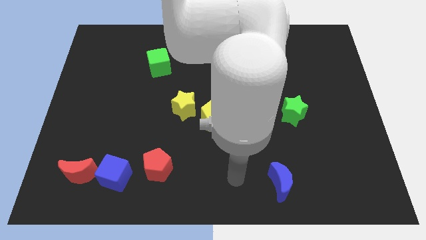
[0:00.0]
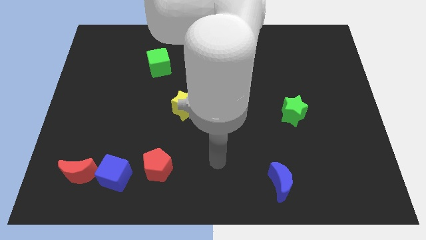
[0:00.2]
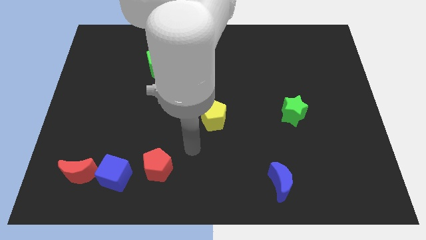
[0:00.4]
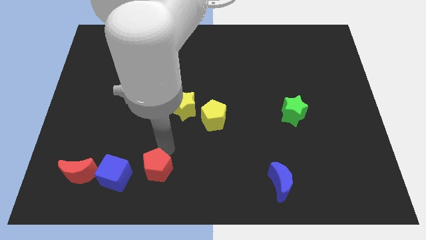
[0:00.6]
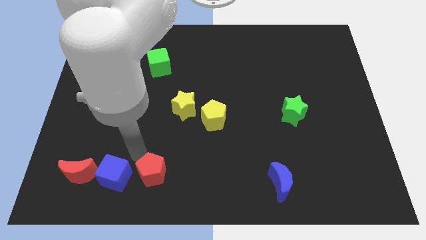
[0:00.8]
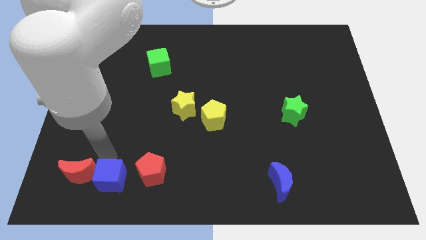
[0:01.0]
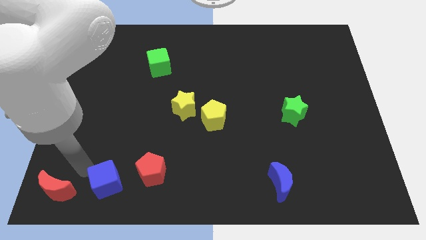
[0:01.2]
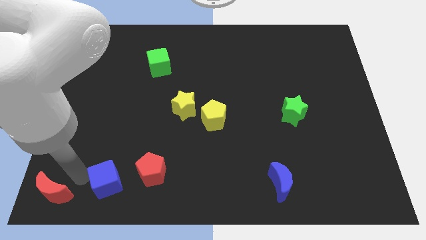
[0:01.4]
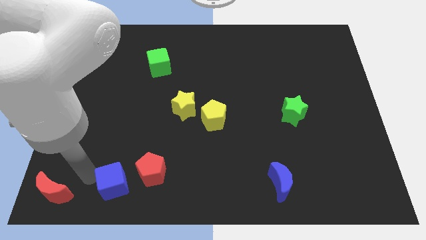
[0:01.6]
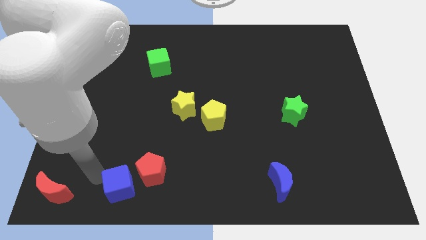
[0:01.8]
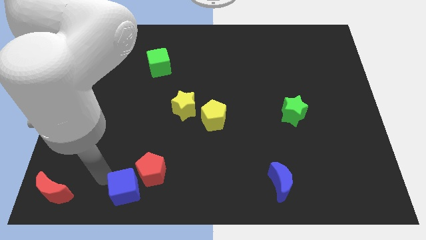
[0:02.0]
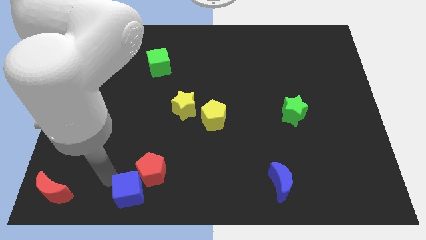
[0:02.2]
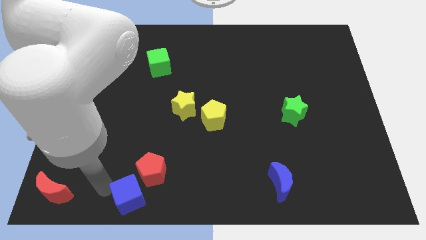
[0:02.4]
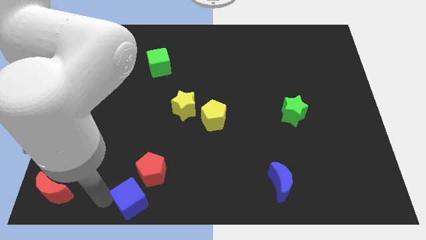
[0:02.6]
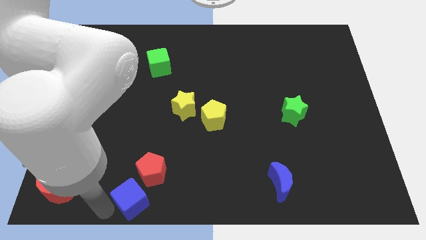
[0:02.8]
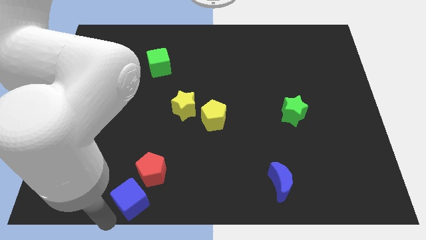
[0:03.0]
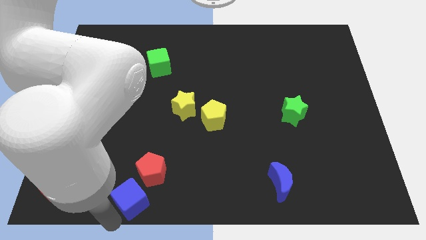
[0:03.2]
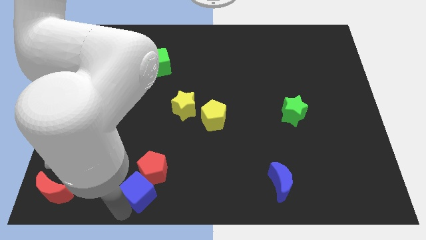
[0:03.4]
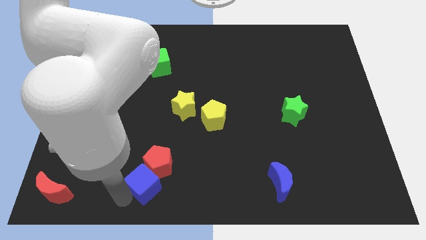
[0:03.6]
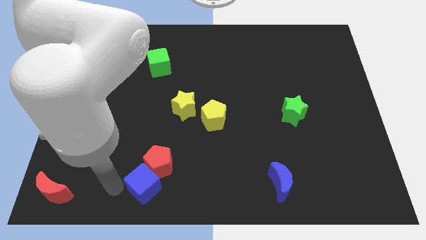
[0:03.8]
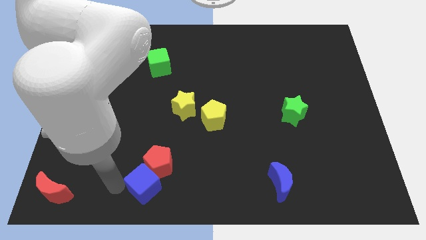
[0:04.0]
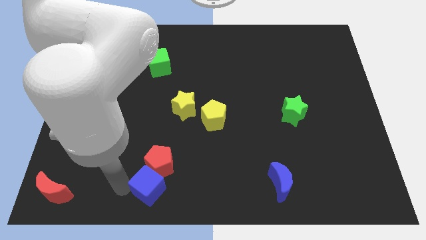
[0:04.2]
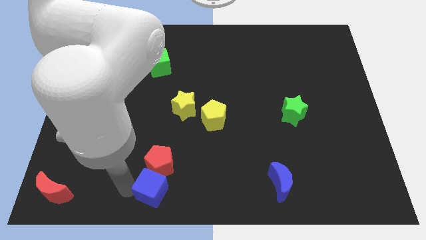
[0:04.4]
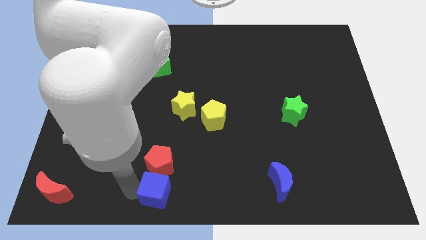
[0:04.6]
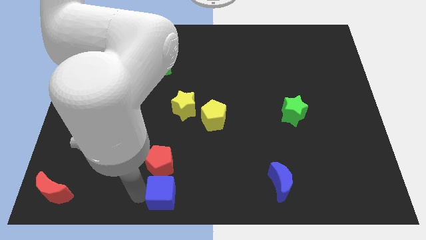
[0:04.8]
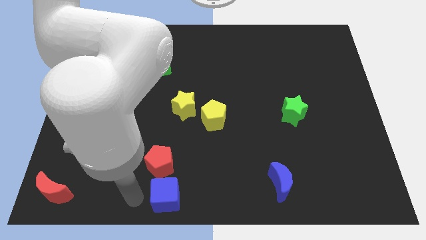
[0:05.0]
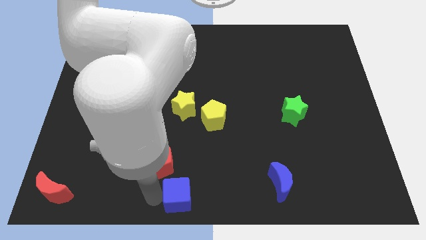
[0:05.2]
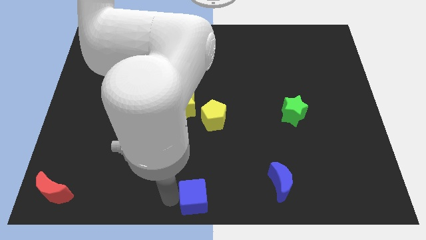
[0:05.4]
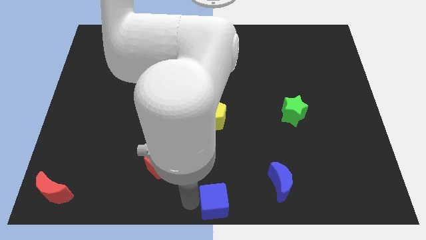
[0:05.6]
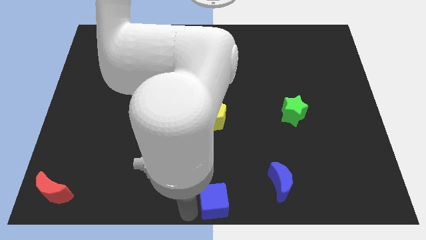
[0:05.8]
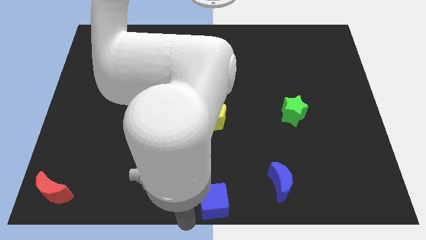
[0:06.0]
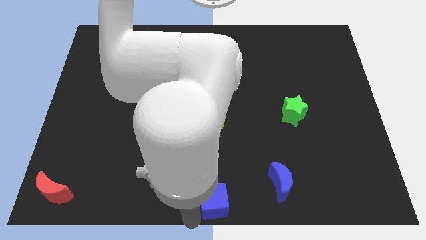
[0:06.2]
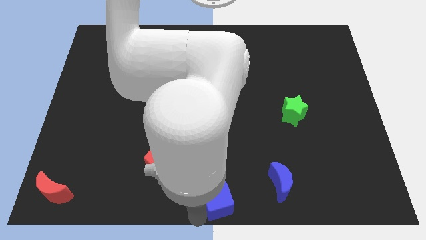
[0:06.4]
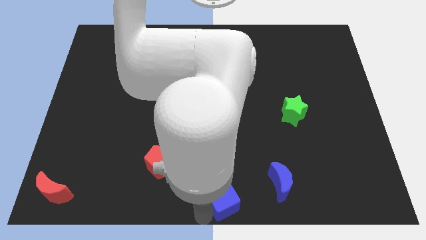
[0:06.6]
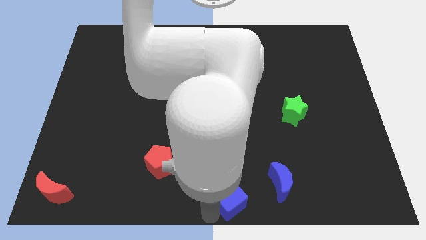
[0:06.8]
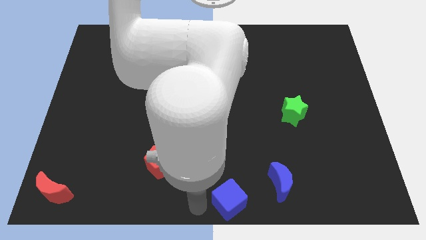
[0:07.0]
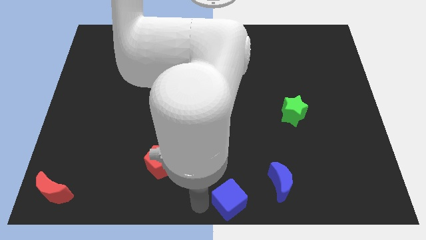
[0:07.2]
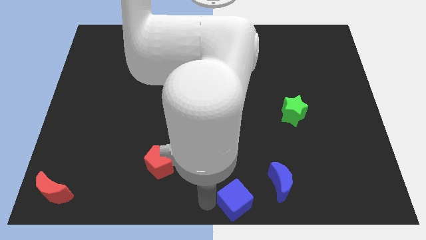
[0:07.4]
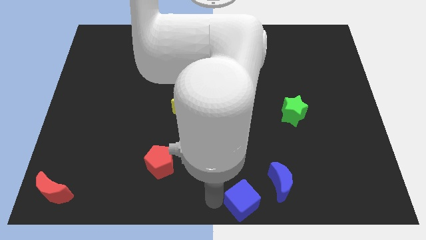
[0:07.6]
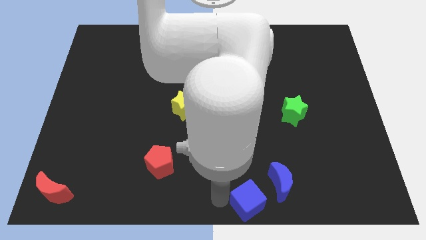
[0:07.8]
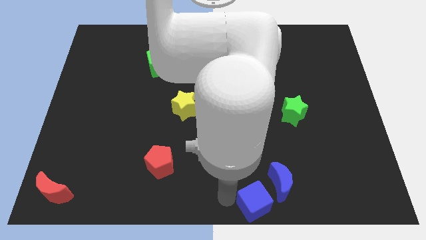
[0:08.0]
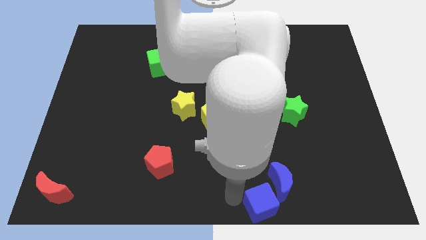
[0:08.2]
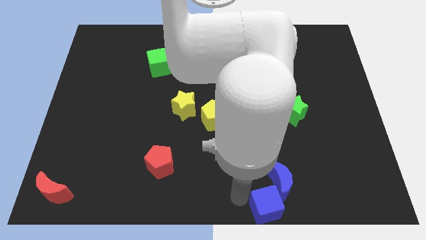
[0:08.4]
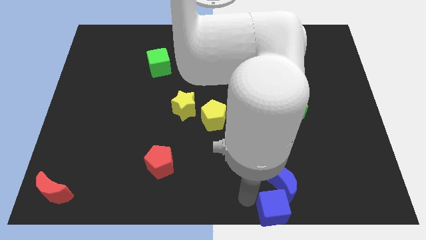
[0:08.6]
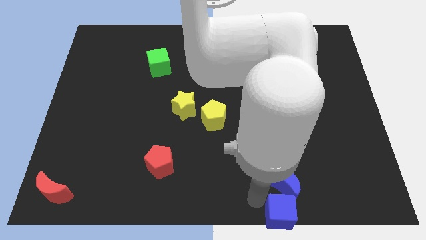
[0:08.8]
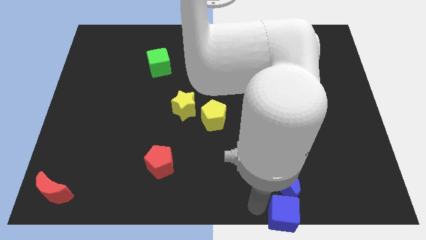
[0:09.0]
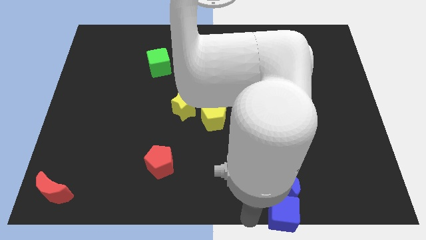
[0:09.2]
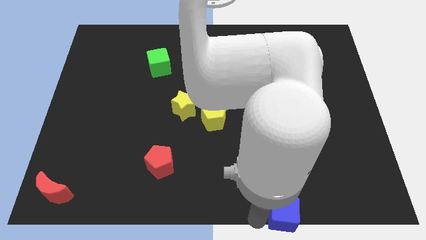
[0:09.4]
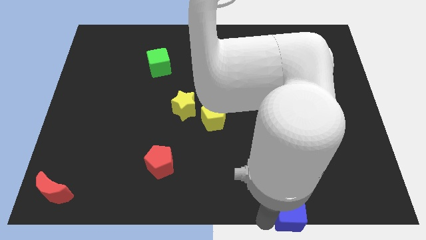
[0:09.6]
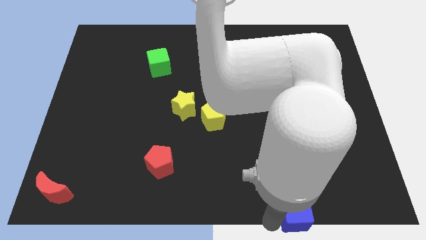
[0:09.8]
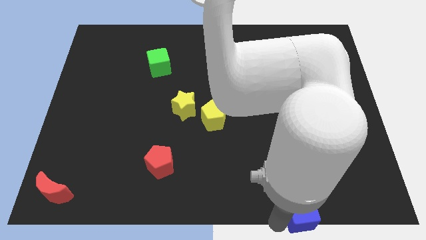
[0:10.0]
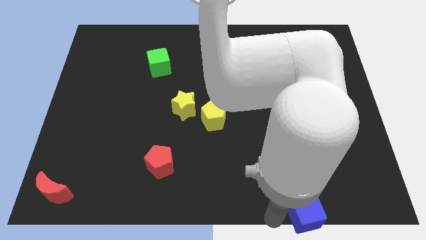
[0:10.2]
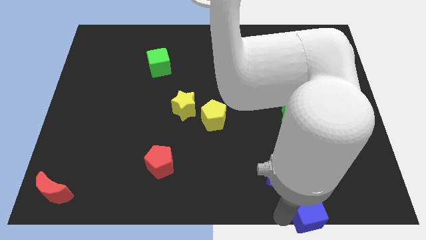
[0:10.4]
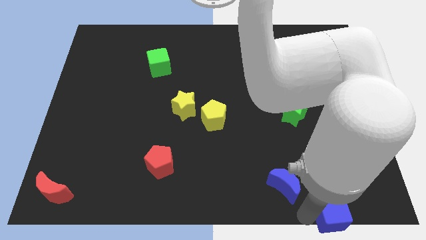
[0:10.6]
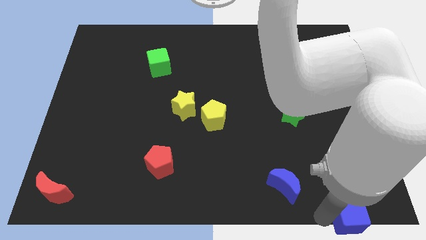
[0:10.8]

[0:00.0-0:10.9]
move the blue cube to the bottom right corner

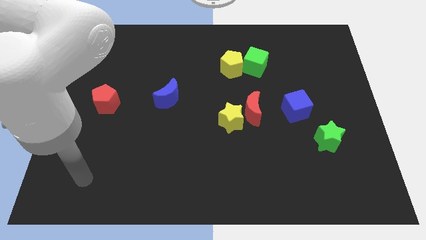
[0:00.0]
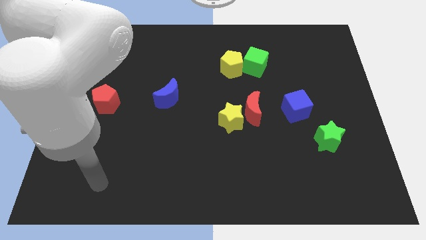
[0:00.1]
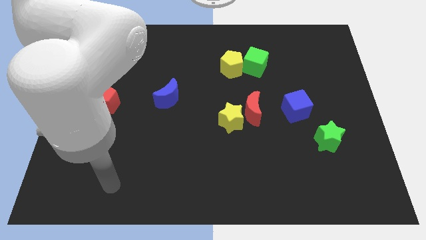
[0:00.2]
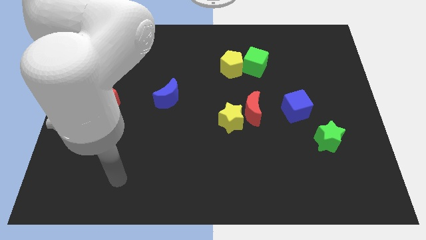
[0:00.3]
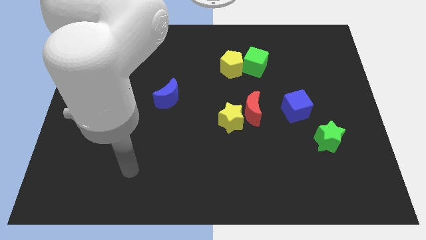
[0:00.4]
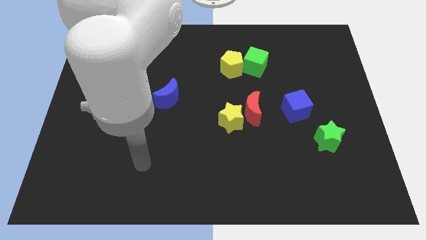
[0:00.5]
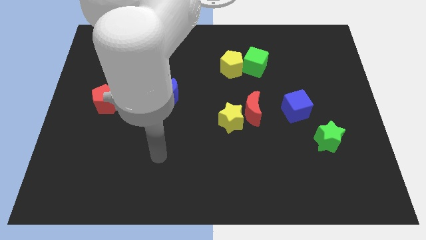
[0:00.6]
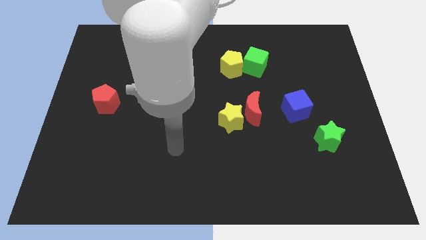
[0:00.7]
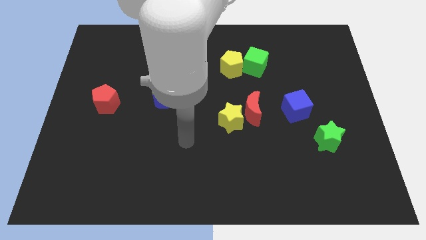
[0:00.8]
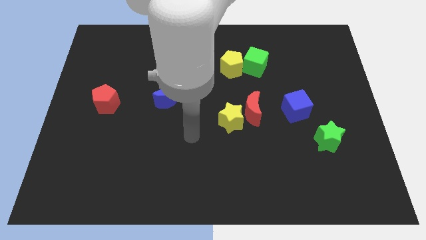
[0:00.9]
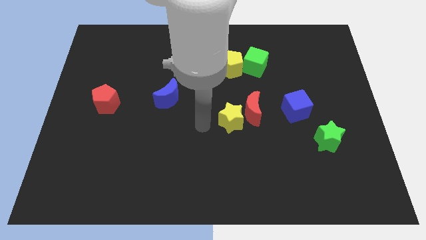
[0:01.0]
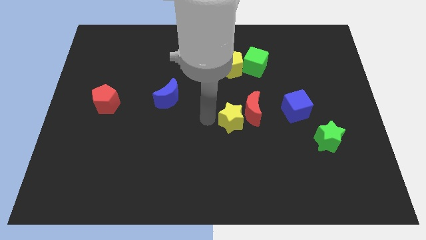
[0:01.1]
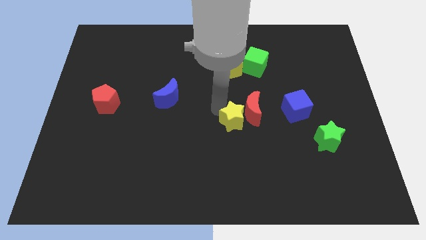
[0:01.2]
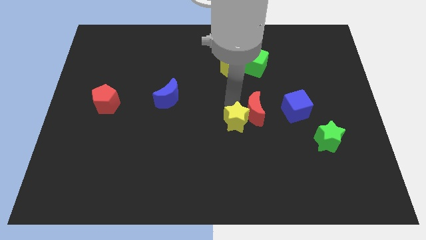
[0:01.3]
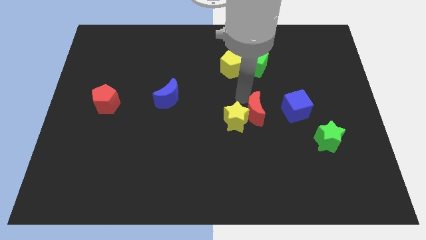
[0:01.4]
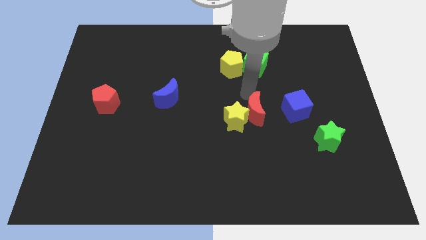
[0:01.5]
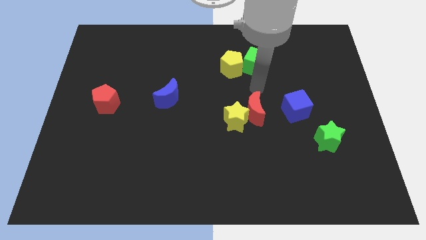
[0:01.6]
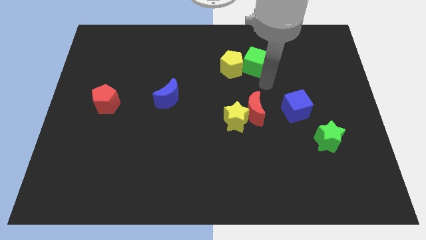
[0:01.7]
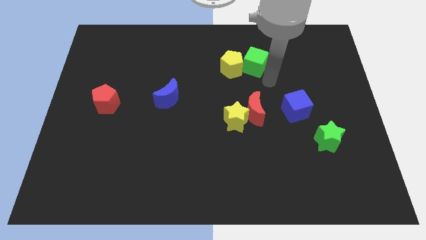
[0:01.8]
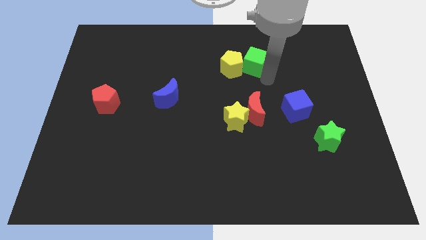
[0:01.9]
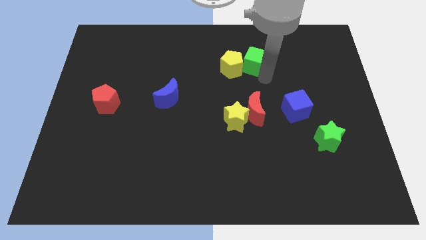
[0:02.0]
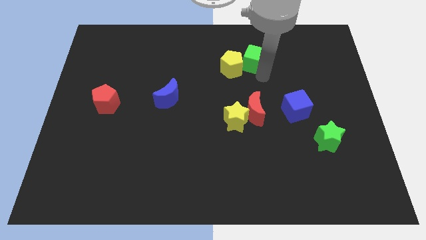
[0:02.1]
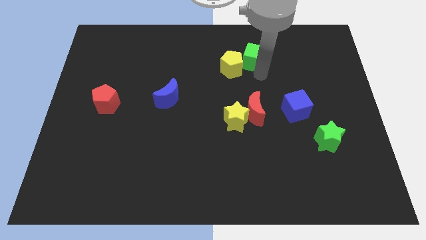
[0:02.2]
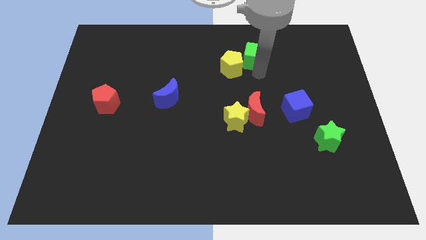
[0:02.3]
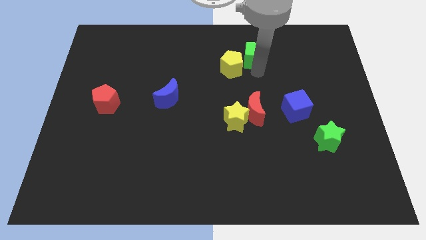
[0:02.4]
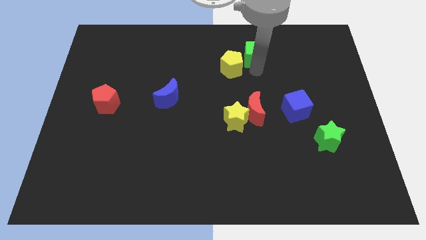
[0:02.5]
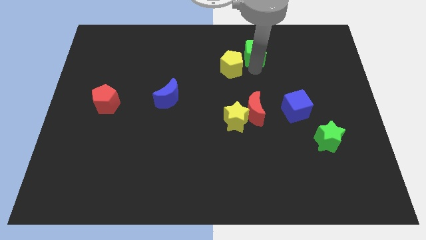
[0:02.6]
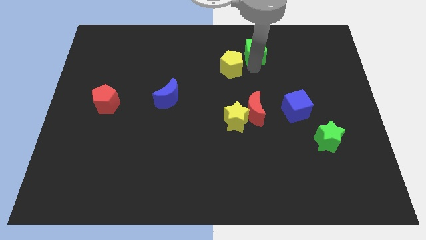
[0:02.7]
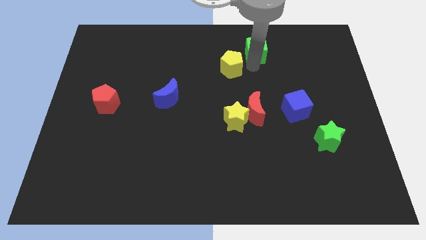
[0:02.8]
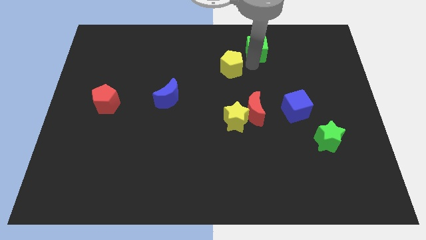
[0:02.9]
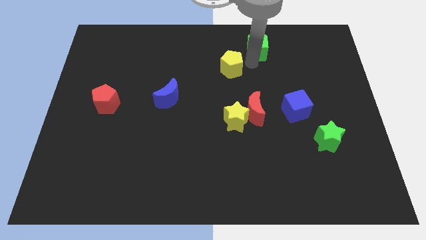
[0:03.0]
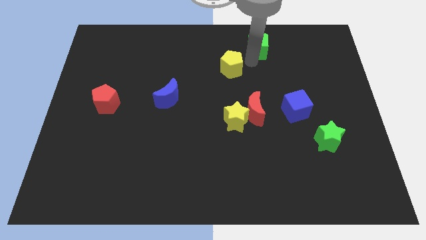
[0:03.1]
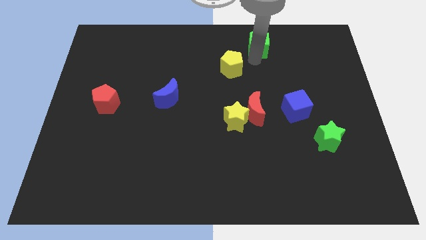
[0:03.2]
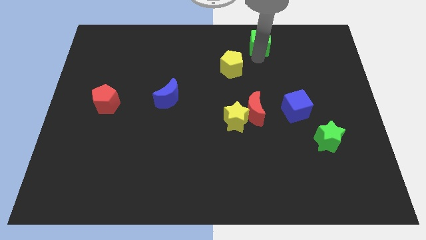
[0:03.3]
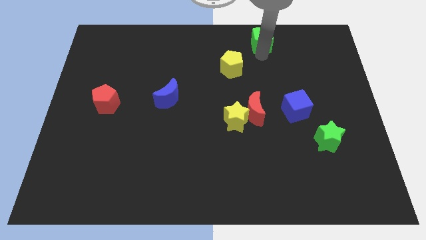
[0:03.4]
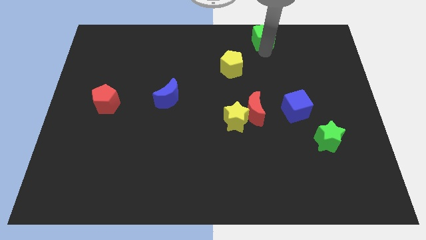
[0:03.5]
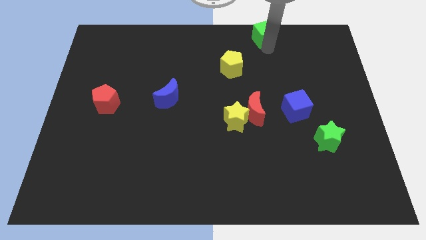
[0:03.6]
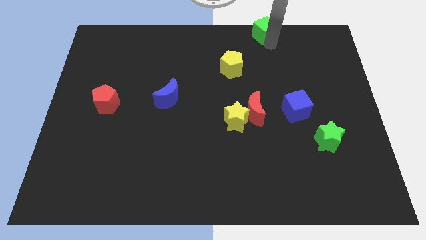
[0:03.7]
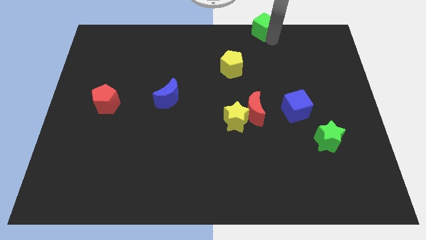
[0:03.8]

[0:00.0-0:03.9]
push the green cube to the top side
